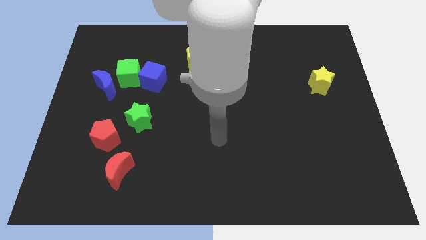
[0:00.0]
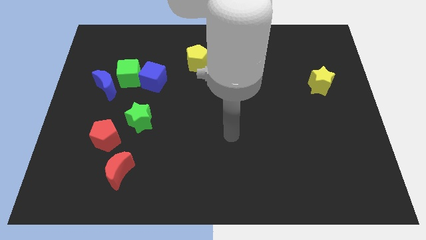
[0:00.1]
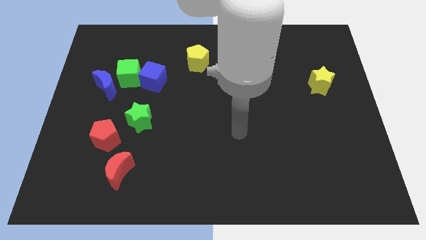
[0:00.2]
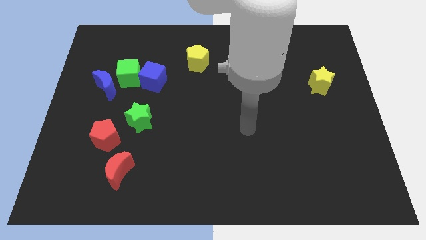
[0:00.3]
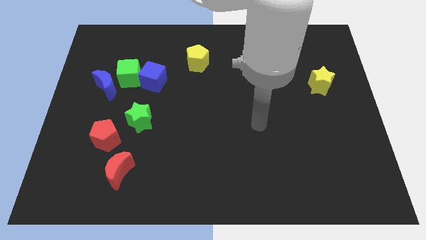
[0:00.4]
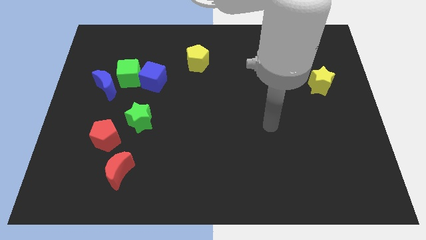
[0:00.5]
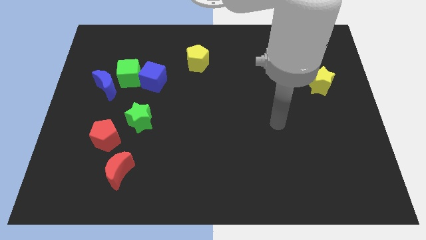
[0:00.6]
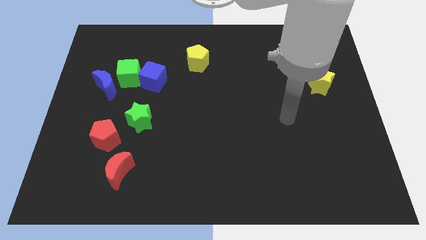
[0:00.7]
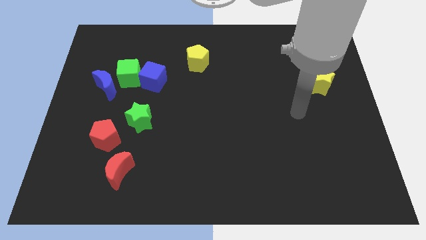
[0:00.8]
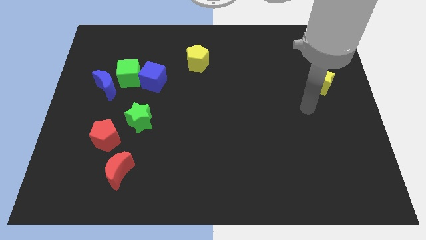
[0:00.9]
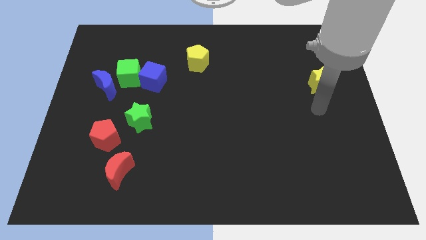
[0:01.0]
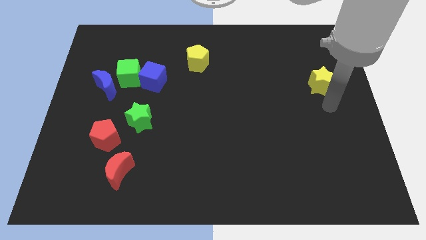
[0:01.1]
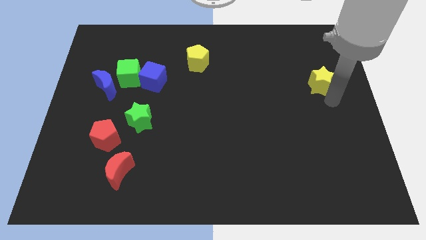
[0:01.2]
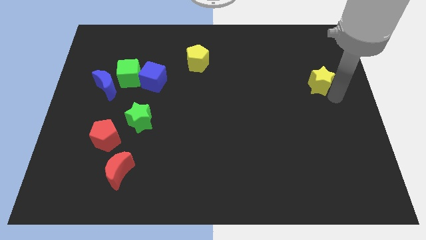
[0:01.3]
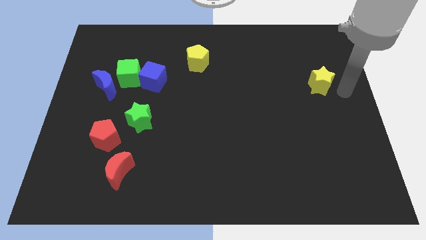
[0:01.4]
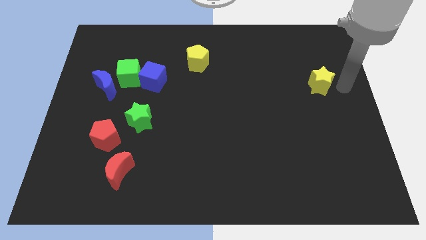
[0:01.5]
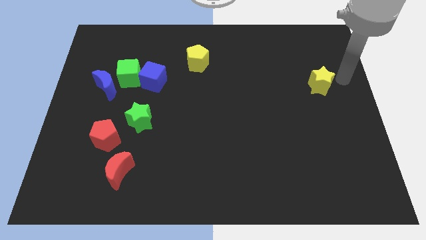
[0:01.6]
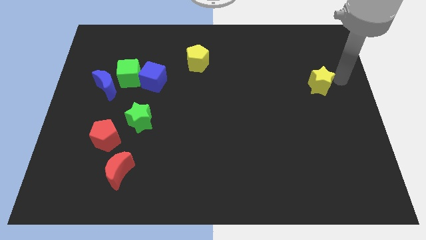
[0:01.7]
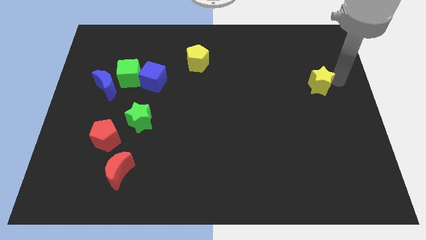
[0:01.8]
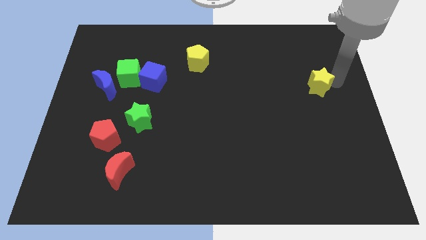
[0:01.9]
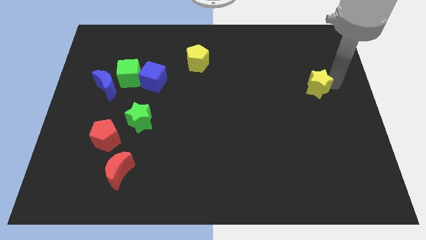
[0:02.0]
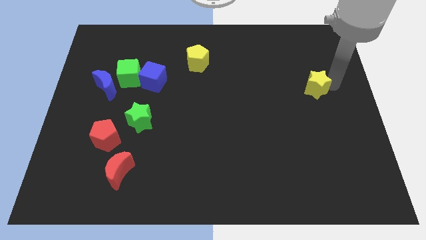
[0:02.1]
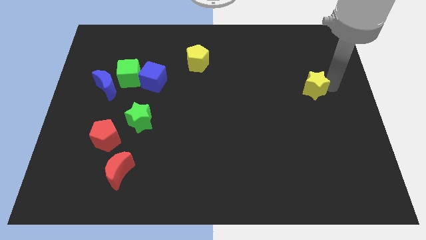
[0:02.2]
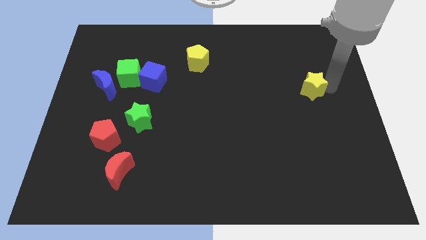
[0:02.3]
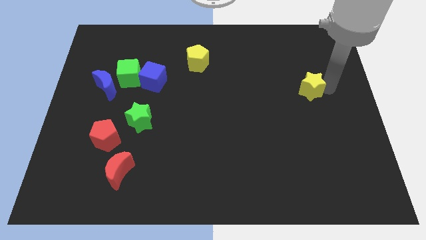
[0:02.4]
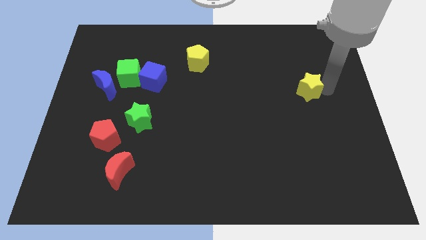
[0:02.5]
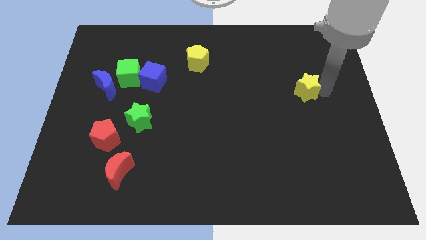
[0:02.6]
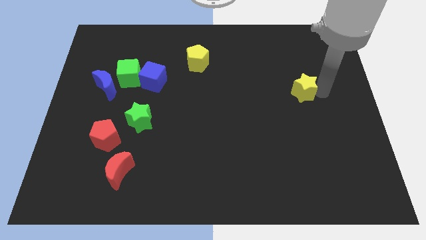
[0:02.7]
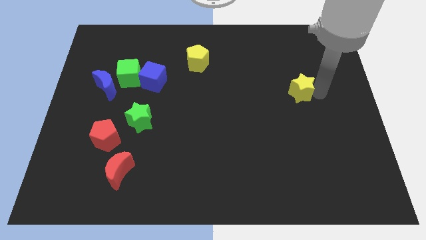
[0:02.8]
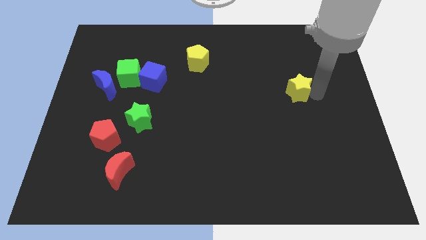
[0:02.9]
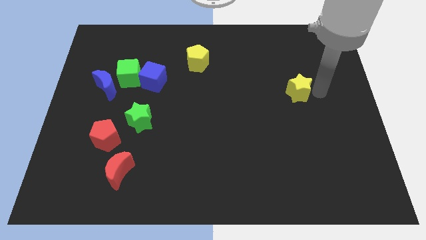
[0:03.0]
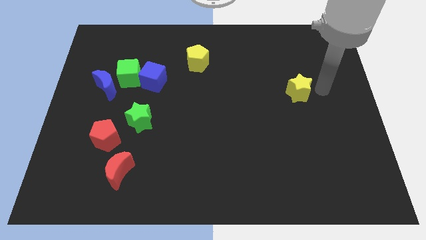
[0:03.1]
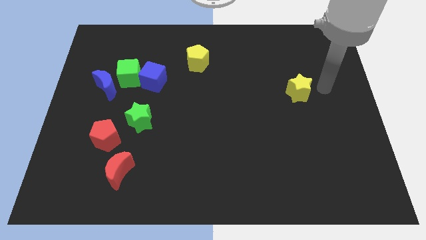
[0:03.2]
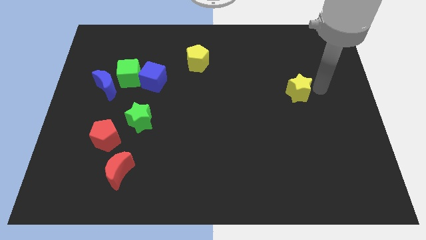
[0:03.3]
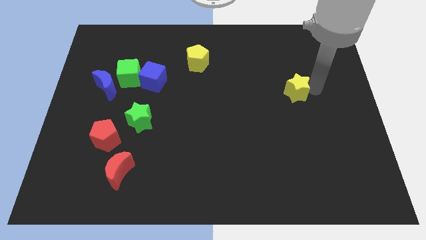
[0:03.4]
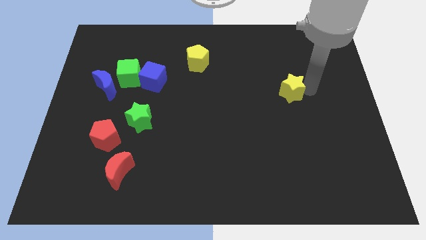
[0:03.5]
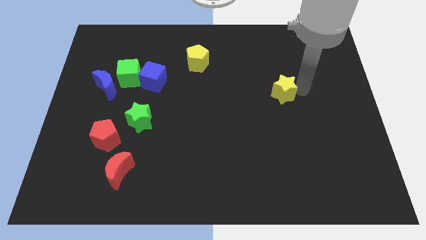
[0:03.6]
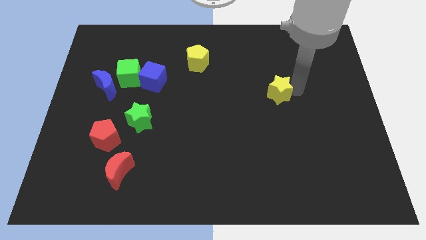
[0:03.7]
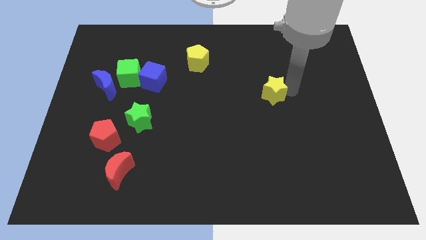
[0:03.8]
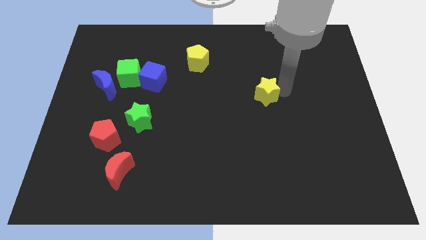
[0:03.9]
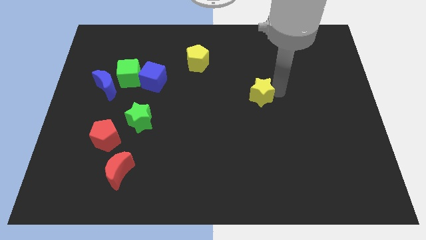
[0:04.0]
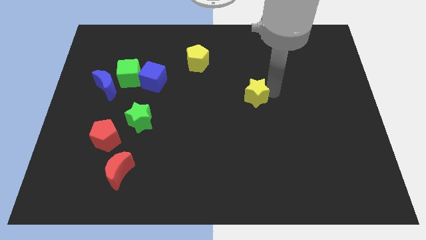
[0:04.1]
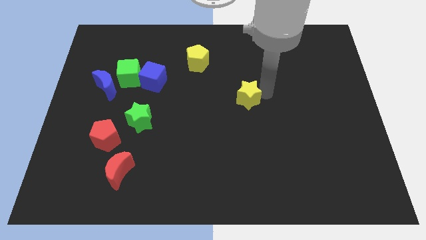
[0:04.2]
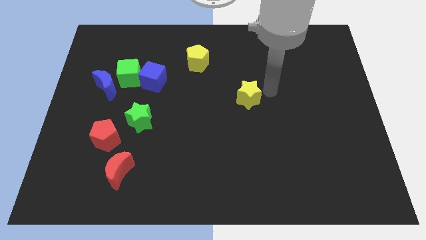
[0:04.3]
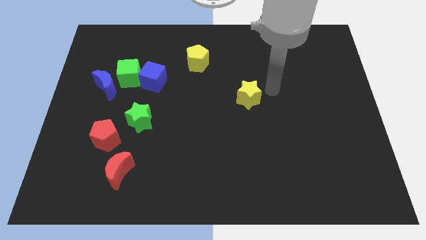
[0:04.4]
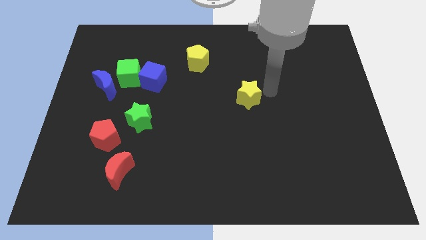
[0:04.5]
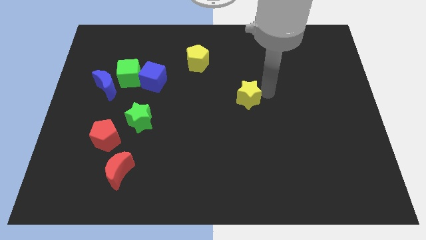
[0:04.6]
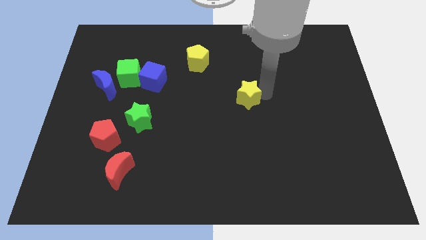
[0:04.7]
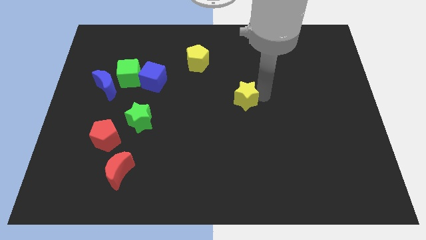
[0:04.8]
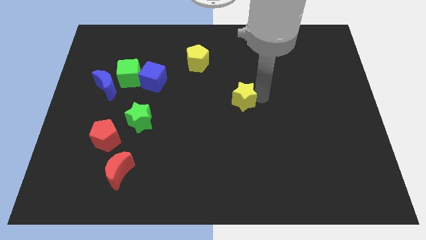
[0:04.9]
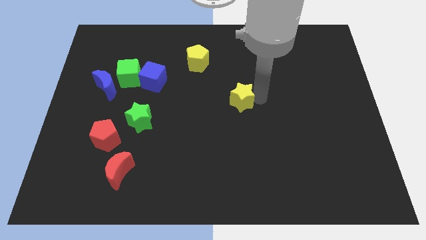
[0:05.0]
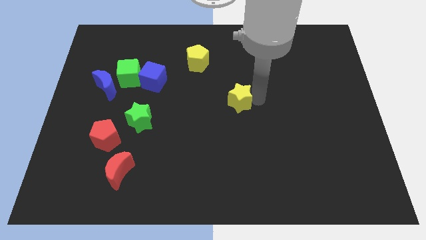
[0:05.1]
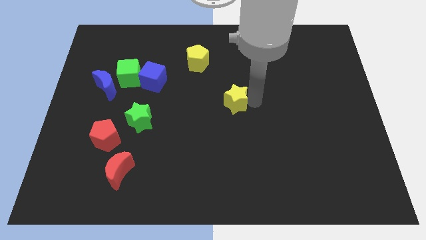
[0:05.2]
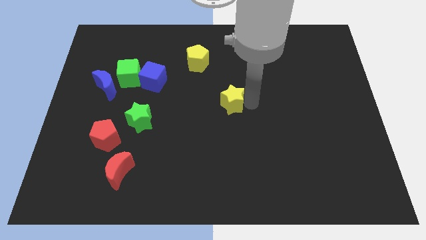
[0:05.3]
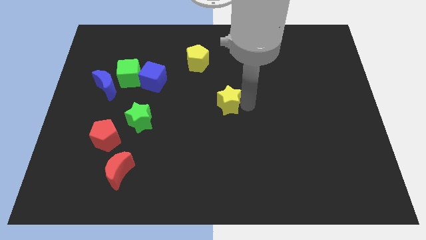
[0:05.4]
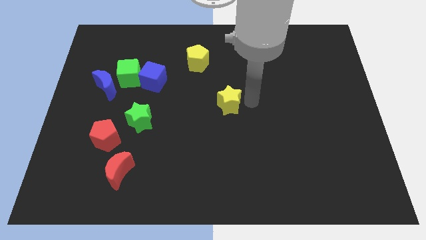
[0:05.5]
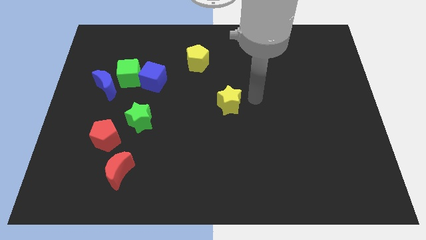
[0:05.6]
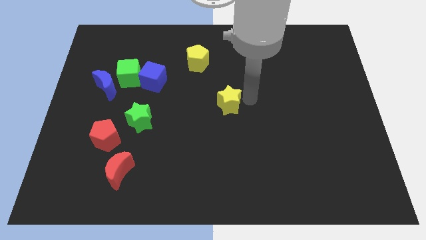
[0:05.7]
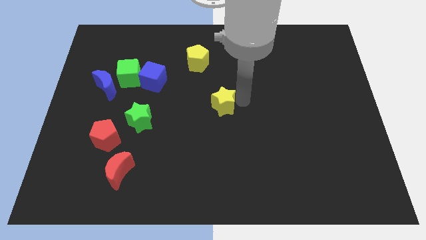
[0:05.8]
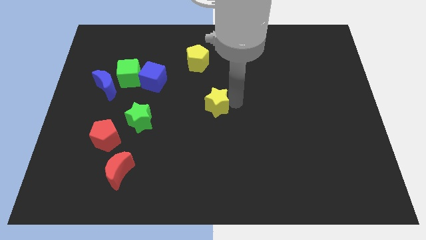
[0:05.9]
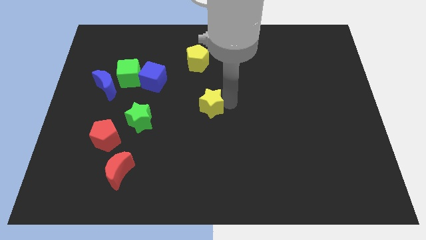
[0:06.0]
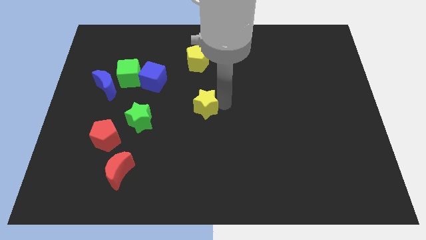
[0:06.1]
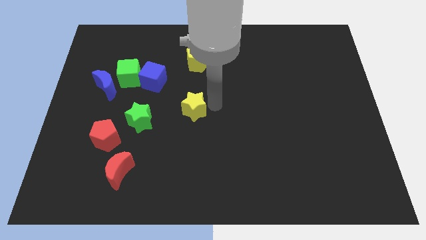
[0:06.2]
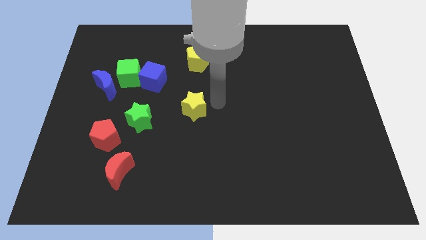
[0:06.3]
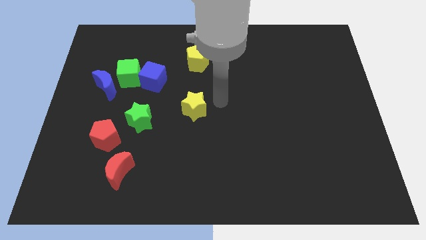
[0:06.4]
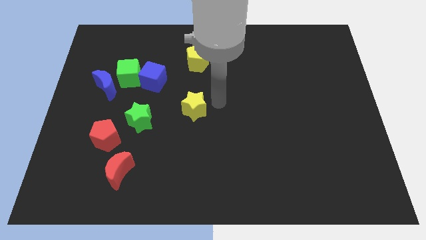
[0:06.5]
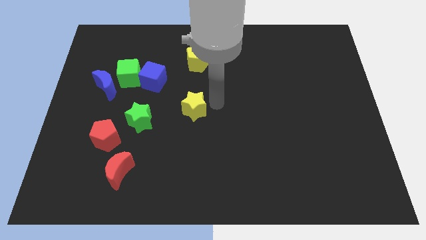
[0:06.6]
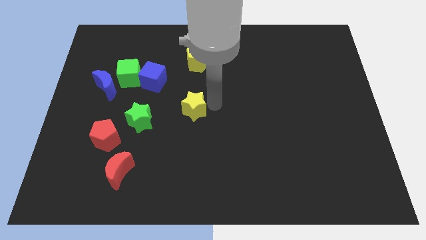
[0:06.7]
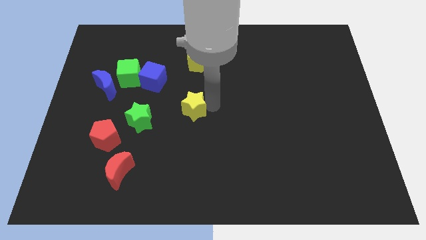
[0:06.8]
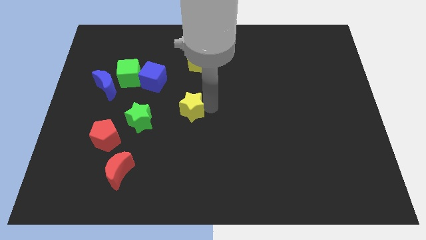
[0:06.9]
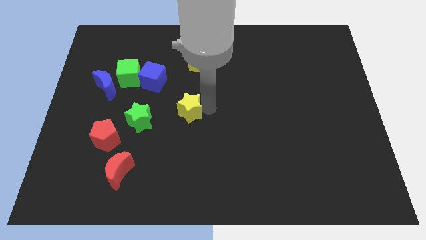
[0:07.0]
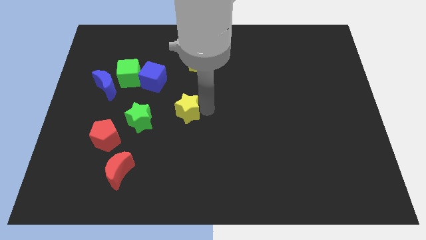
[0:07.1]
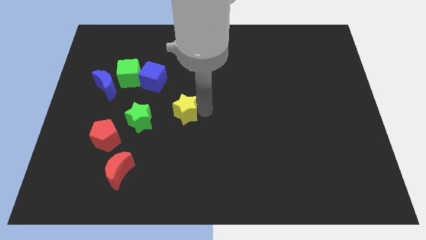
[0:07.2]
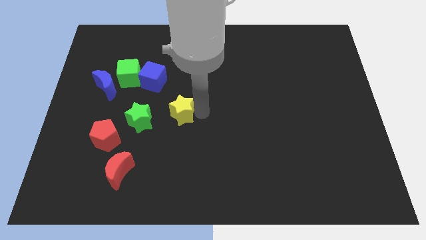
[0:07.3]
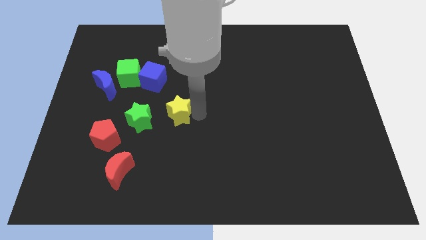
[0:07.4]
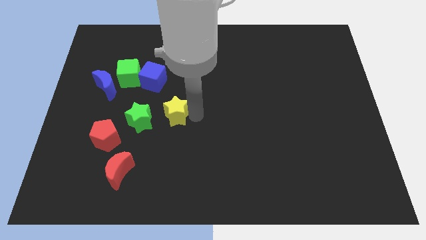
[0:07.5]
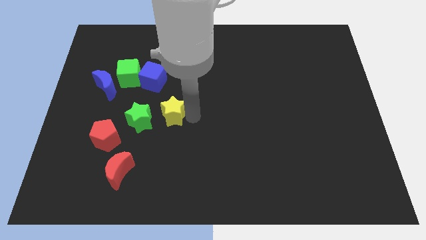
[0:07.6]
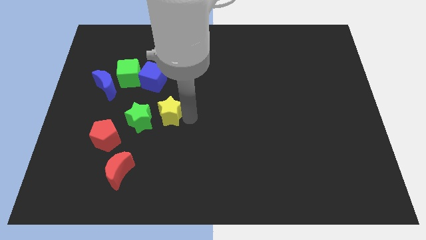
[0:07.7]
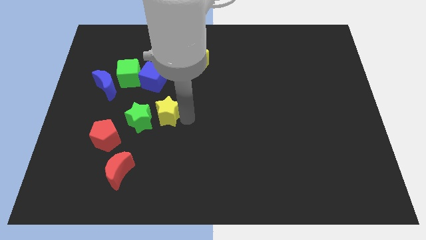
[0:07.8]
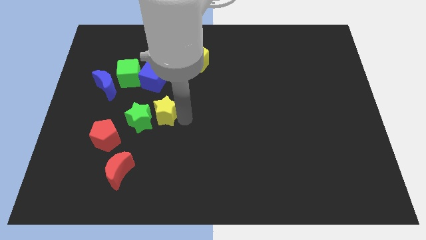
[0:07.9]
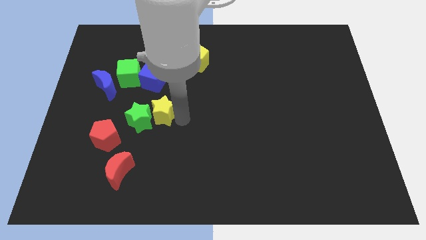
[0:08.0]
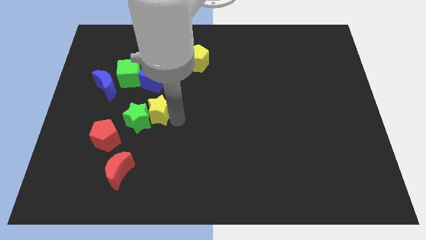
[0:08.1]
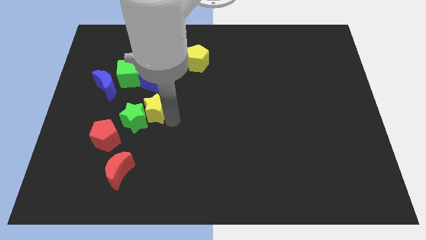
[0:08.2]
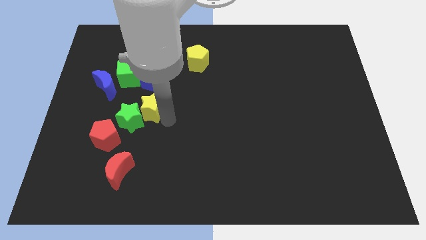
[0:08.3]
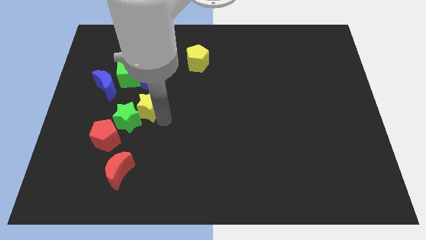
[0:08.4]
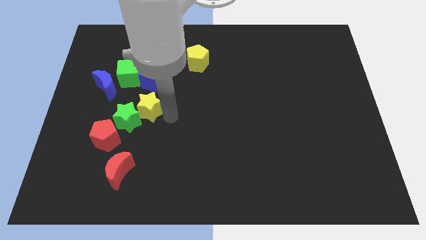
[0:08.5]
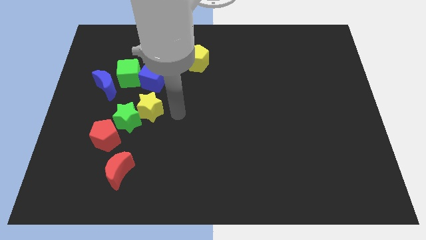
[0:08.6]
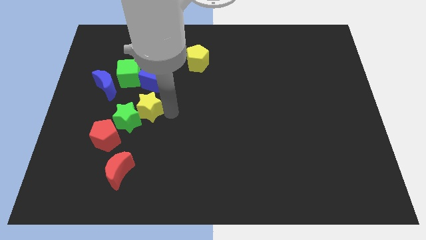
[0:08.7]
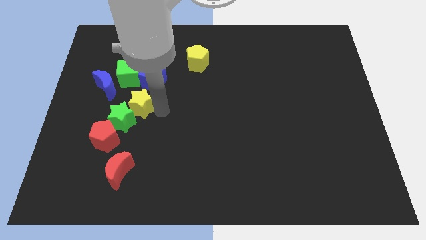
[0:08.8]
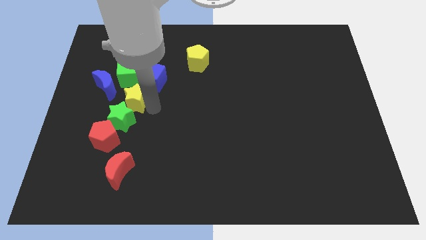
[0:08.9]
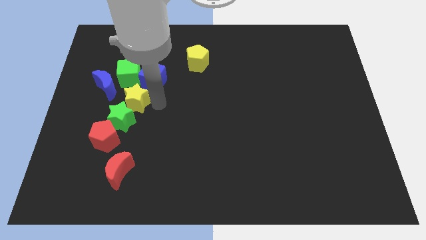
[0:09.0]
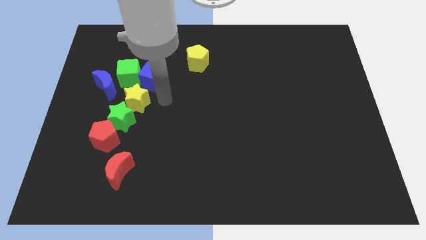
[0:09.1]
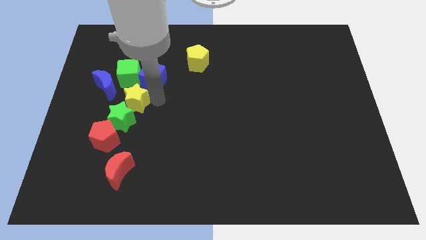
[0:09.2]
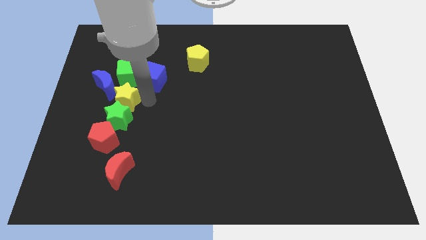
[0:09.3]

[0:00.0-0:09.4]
put the yellow star diagonally up and to the left of the green star
